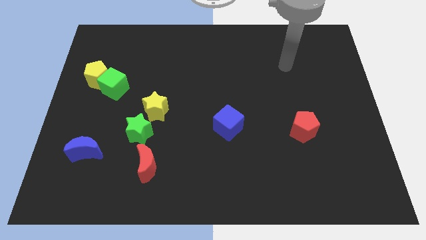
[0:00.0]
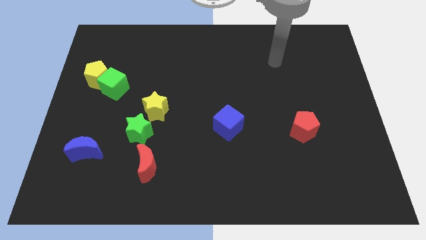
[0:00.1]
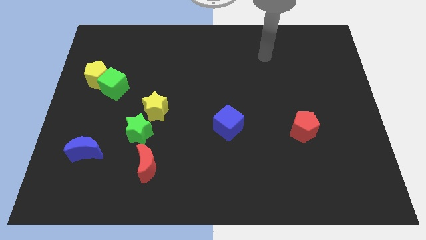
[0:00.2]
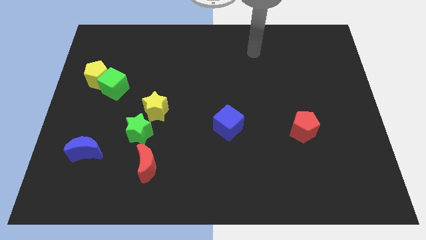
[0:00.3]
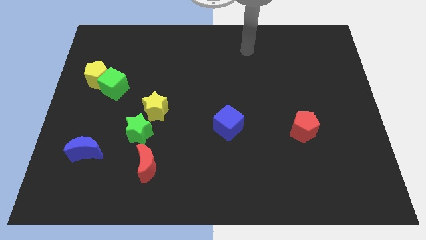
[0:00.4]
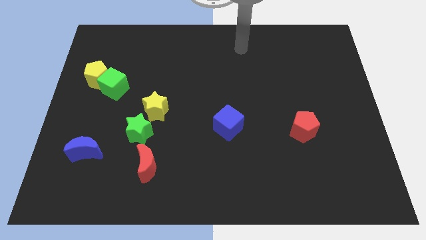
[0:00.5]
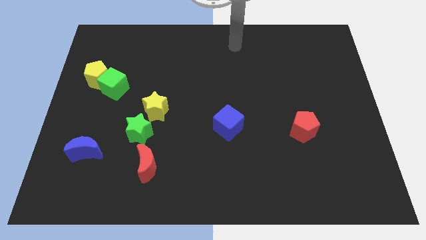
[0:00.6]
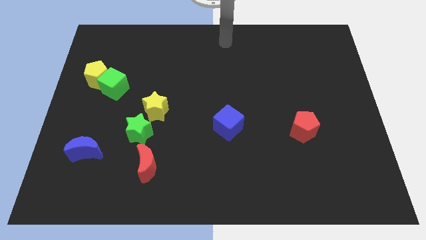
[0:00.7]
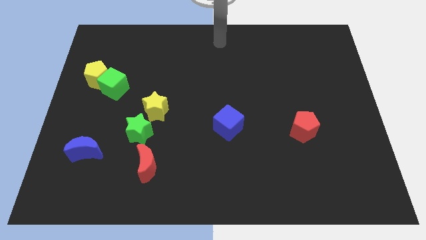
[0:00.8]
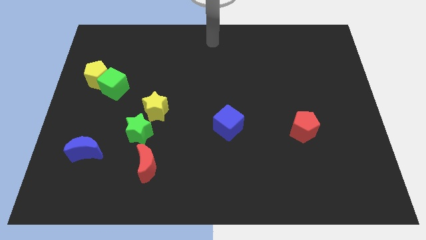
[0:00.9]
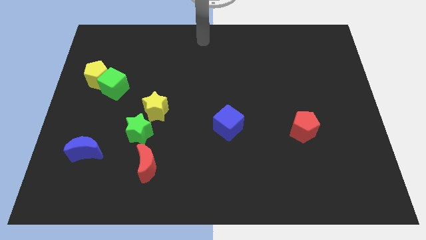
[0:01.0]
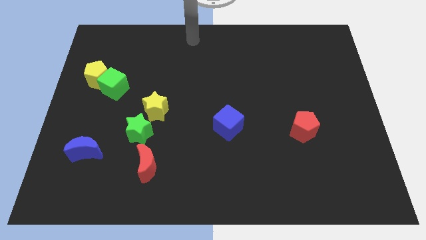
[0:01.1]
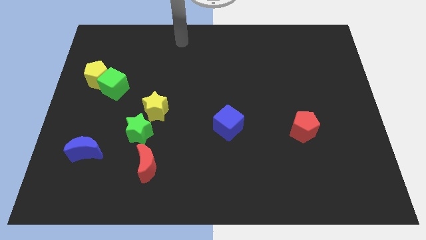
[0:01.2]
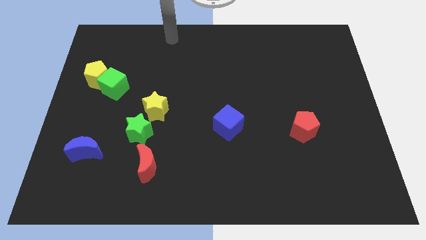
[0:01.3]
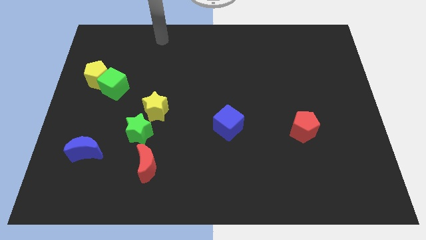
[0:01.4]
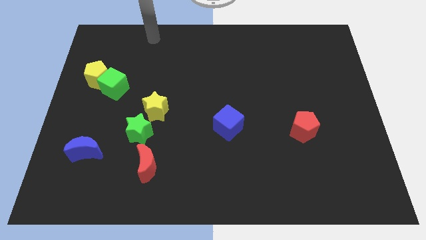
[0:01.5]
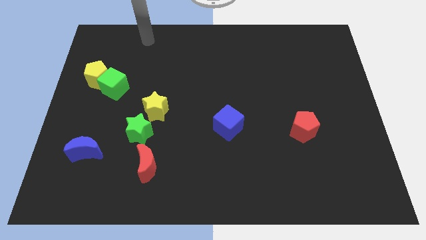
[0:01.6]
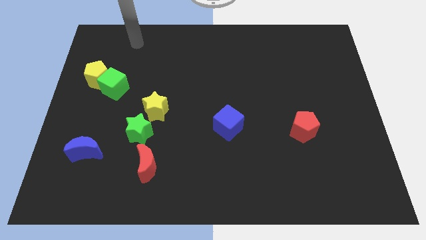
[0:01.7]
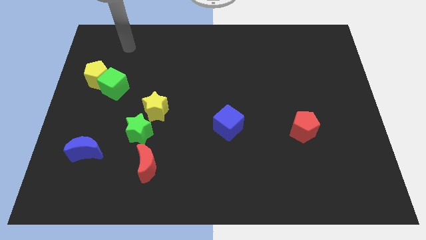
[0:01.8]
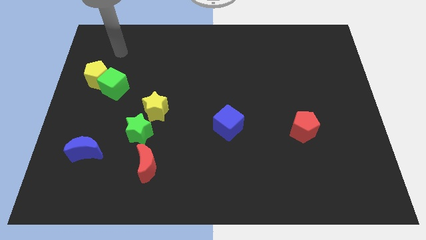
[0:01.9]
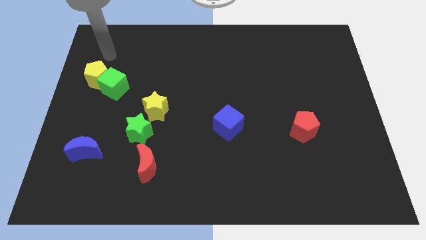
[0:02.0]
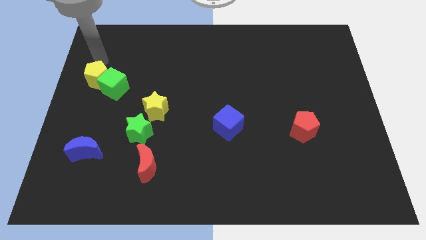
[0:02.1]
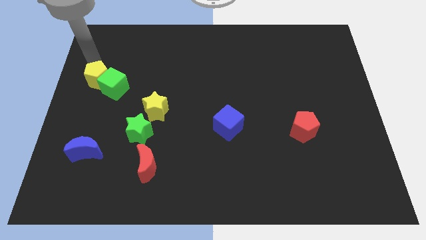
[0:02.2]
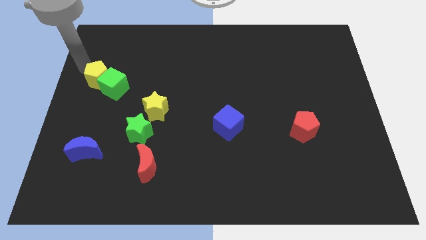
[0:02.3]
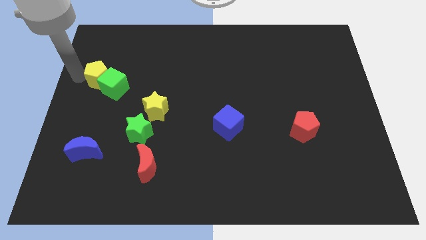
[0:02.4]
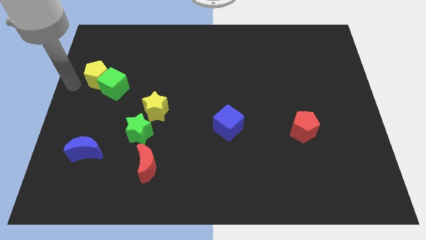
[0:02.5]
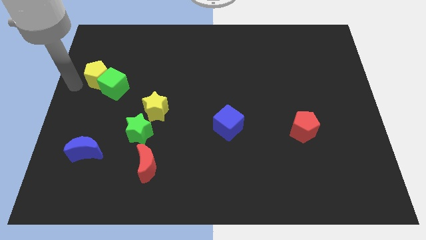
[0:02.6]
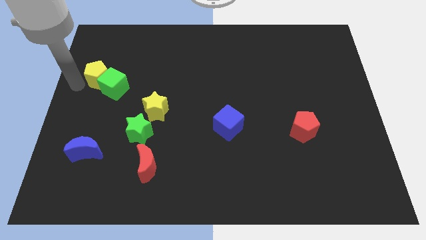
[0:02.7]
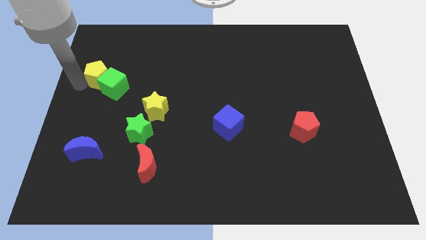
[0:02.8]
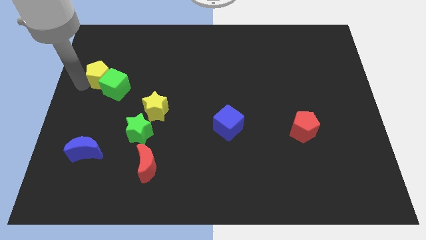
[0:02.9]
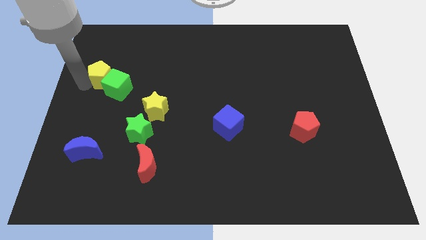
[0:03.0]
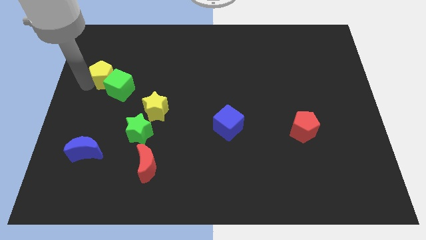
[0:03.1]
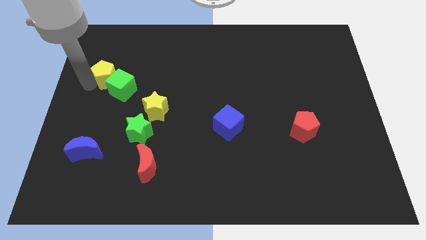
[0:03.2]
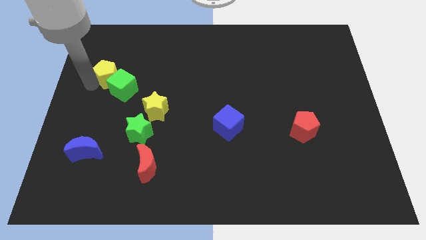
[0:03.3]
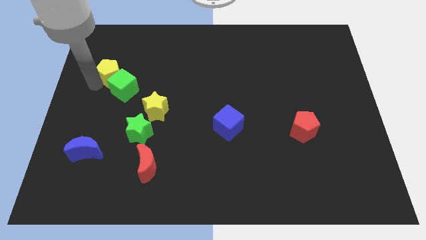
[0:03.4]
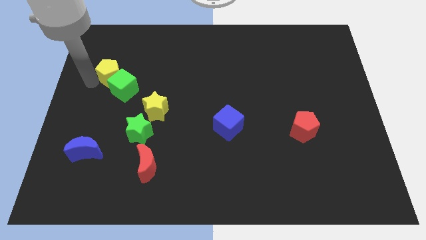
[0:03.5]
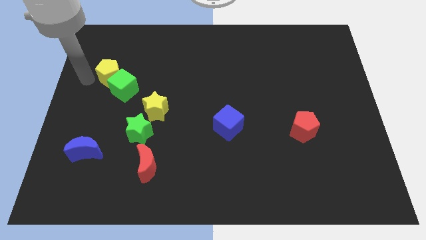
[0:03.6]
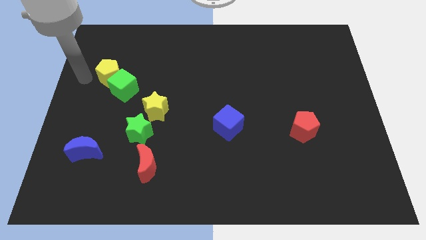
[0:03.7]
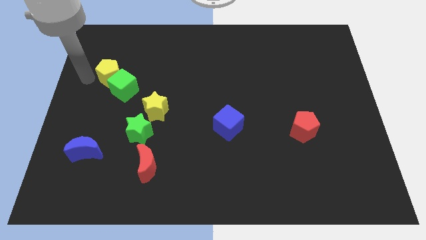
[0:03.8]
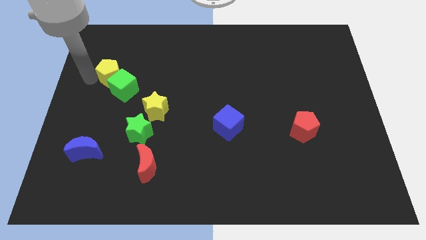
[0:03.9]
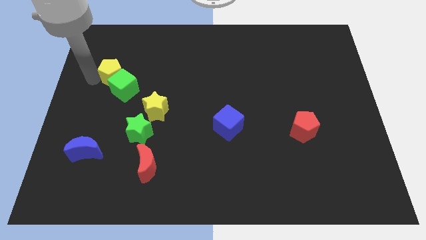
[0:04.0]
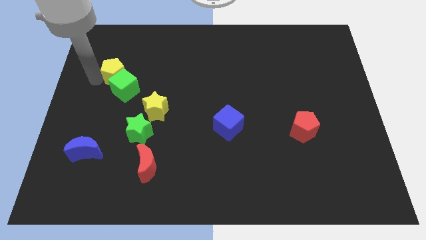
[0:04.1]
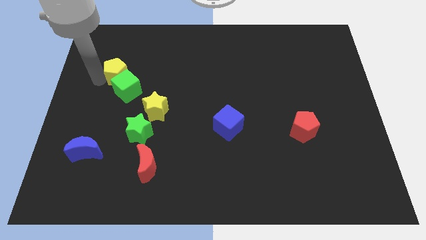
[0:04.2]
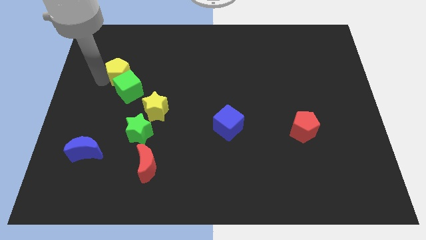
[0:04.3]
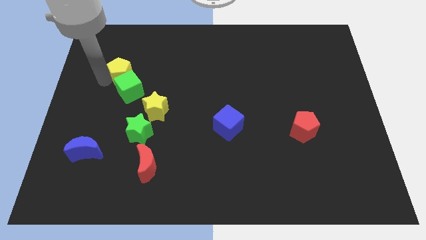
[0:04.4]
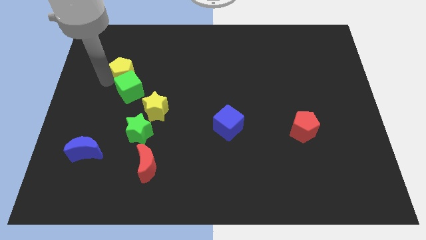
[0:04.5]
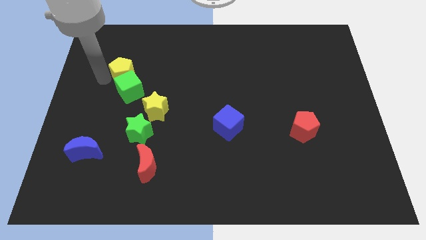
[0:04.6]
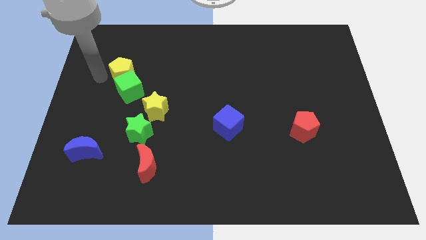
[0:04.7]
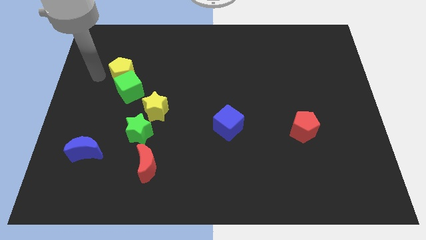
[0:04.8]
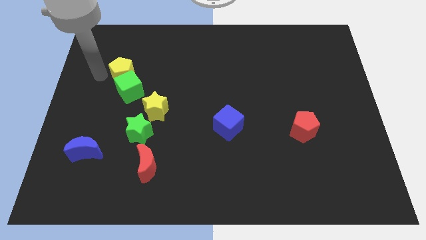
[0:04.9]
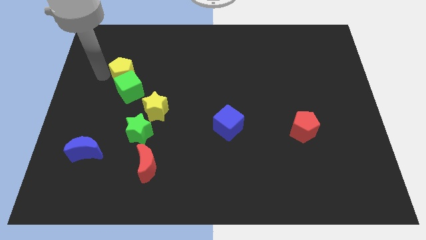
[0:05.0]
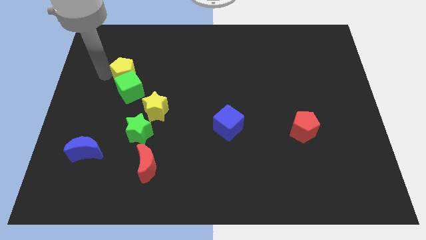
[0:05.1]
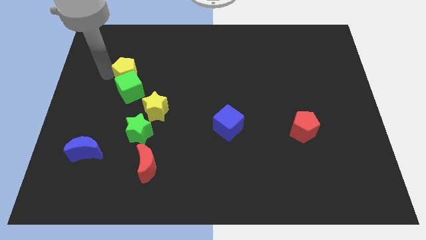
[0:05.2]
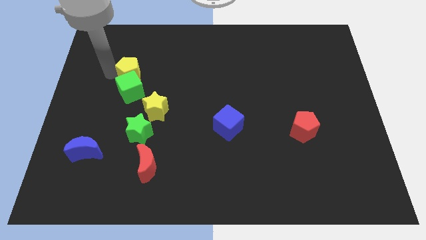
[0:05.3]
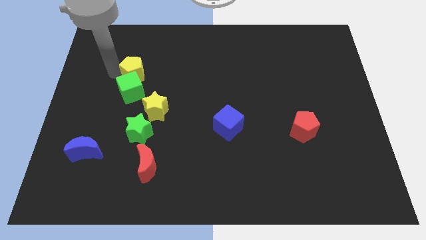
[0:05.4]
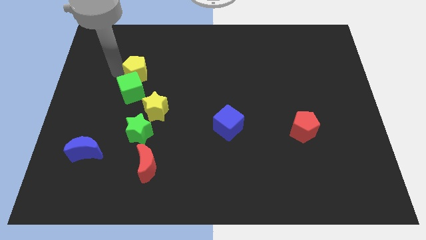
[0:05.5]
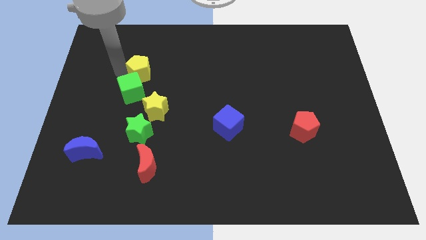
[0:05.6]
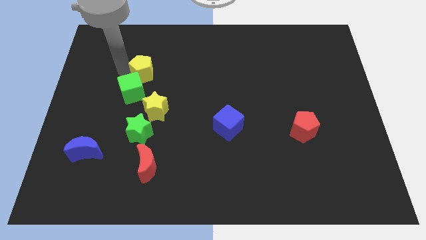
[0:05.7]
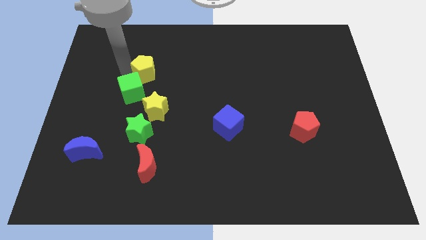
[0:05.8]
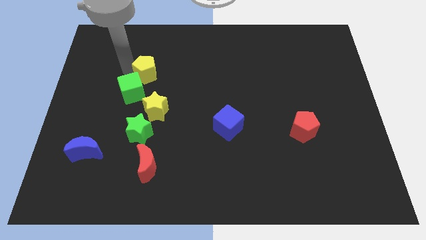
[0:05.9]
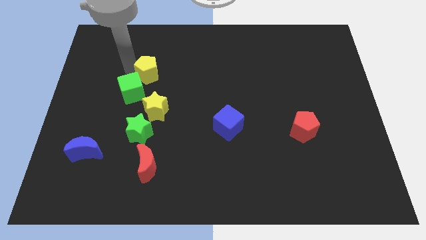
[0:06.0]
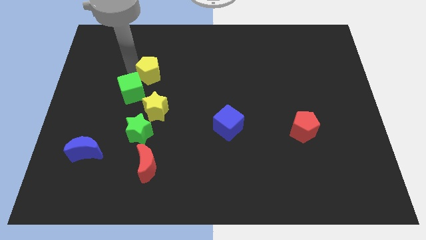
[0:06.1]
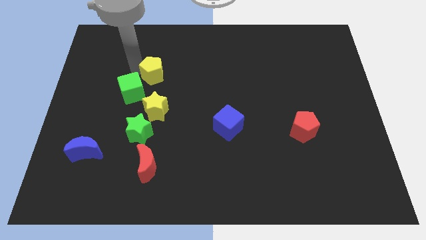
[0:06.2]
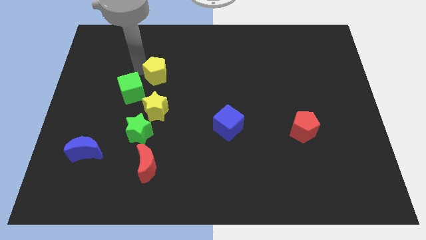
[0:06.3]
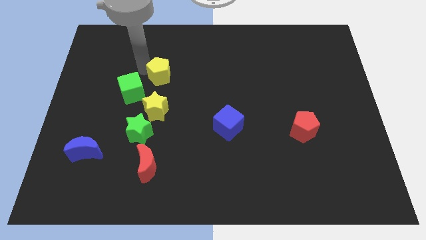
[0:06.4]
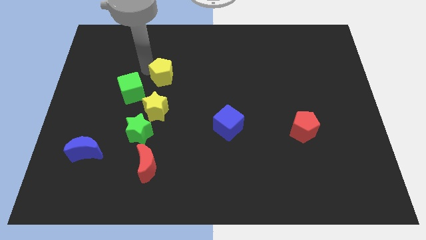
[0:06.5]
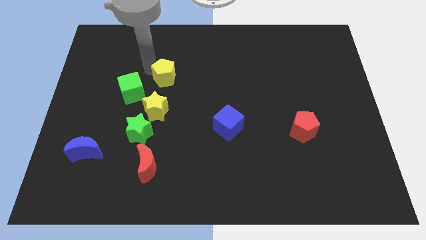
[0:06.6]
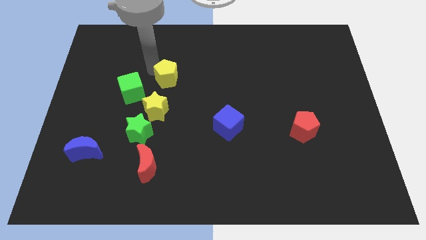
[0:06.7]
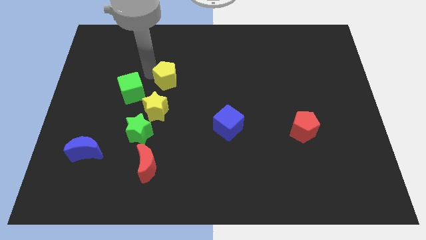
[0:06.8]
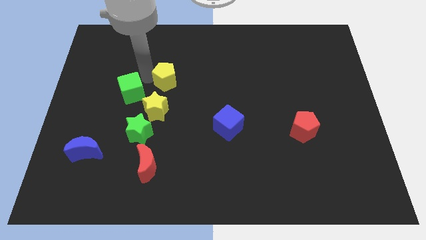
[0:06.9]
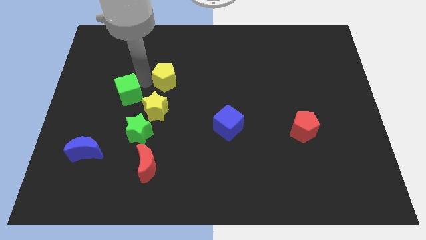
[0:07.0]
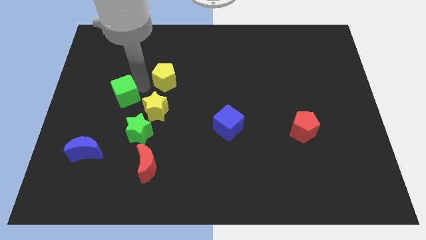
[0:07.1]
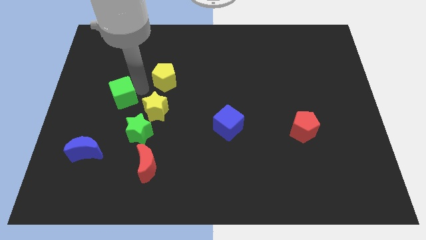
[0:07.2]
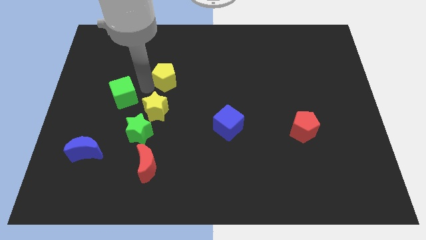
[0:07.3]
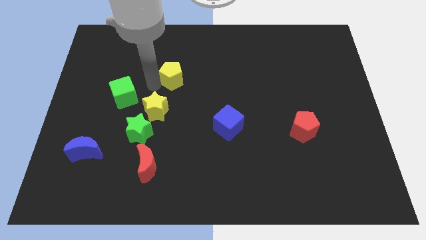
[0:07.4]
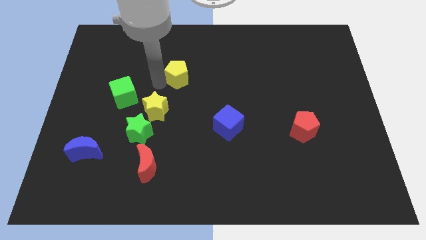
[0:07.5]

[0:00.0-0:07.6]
push the yellow pentagon right

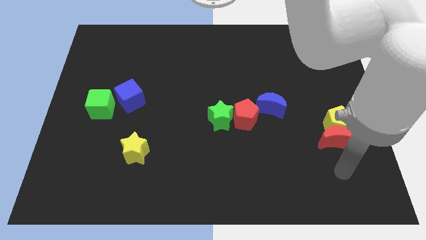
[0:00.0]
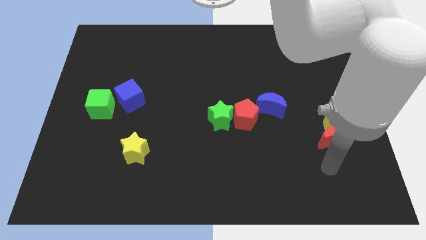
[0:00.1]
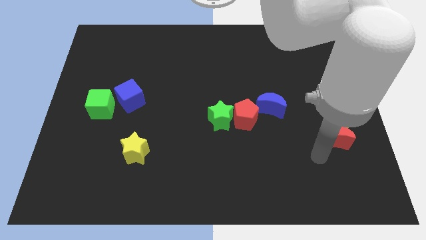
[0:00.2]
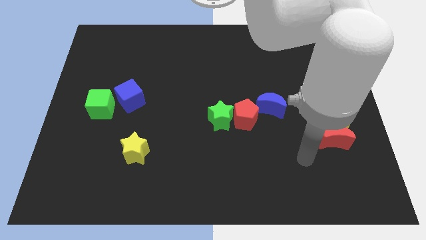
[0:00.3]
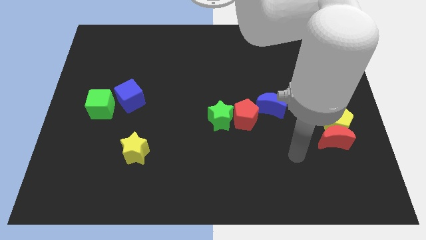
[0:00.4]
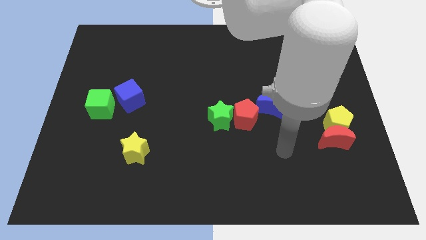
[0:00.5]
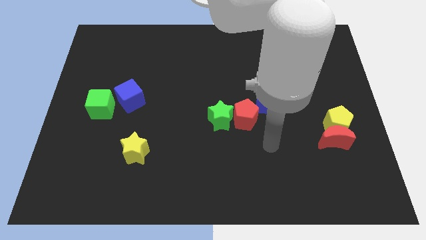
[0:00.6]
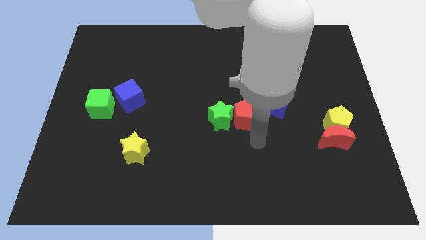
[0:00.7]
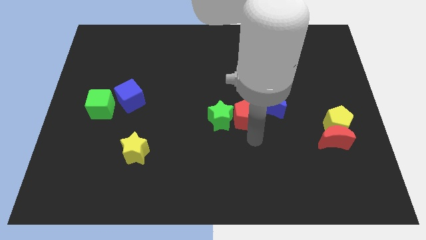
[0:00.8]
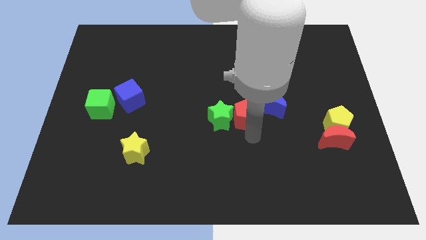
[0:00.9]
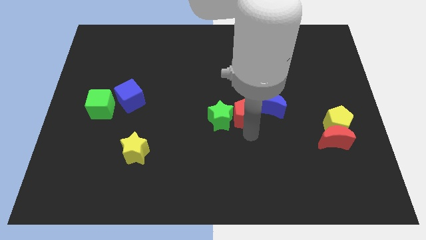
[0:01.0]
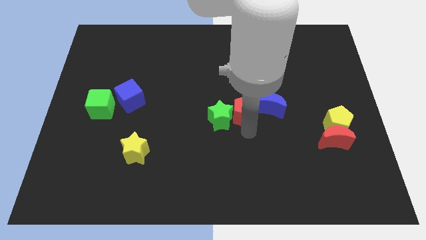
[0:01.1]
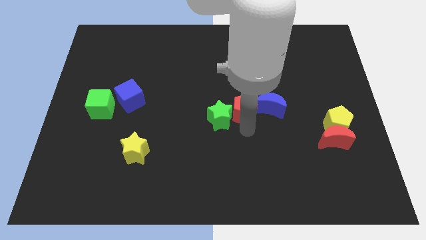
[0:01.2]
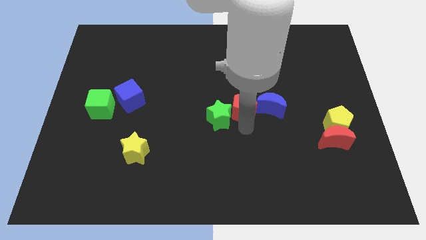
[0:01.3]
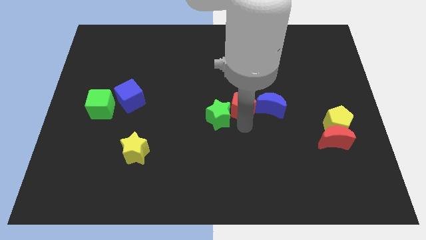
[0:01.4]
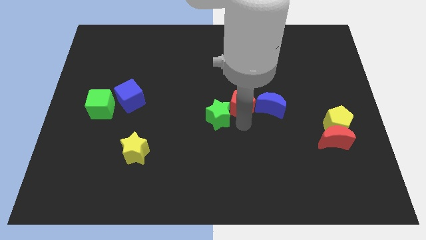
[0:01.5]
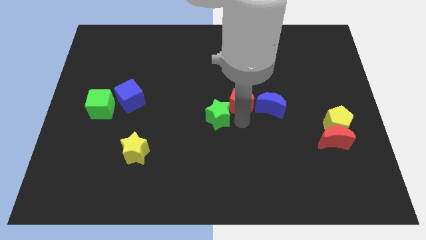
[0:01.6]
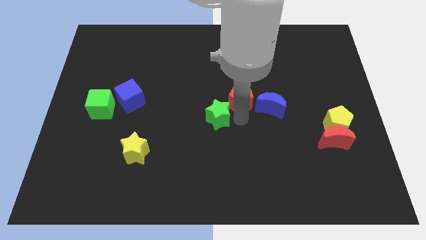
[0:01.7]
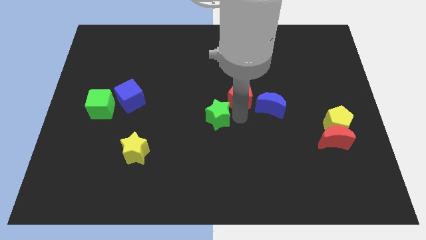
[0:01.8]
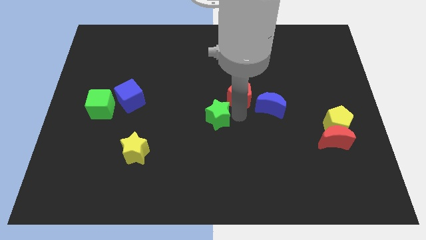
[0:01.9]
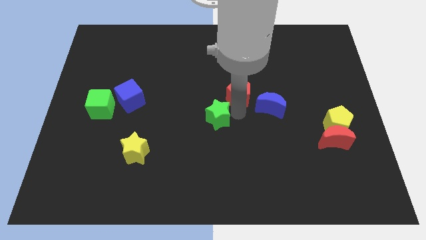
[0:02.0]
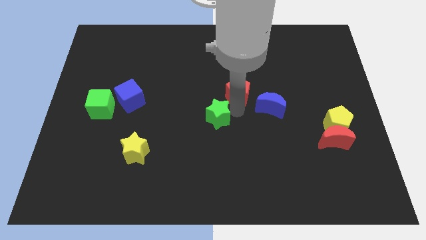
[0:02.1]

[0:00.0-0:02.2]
slightly slide the red pentagon up
